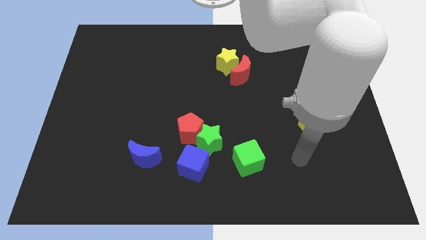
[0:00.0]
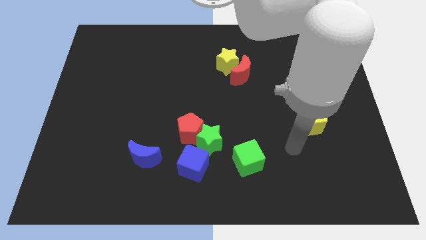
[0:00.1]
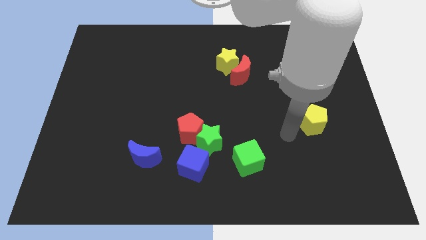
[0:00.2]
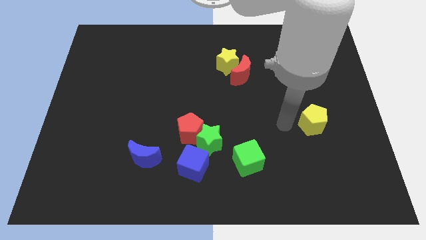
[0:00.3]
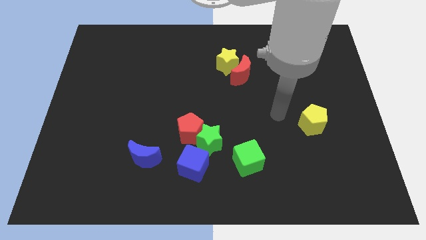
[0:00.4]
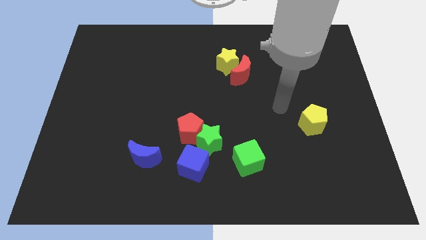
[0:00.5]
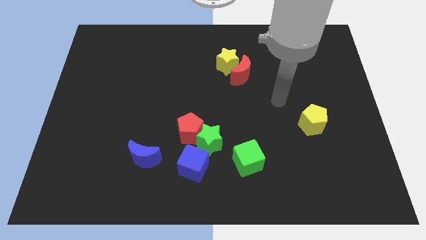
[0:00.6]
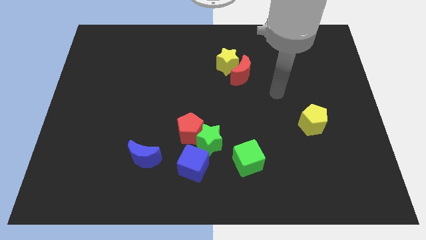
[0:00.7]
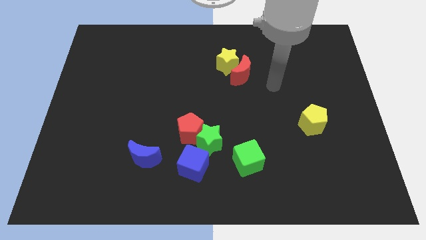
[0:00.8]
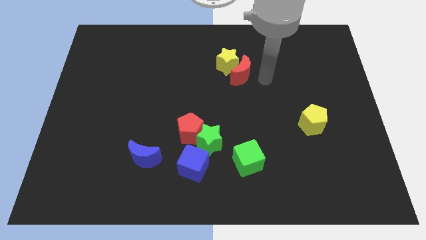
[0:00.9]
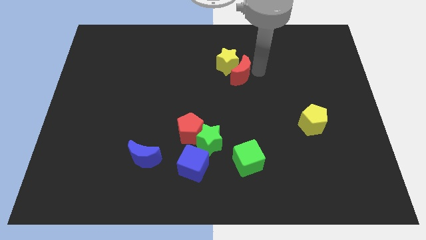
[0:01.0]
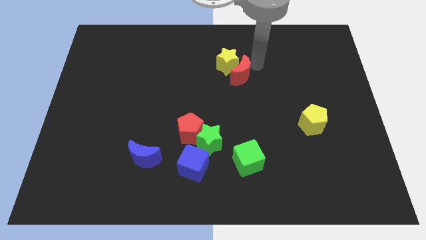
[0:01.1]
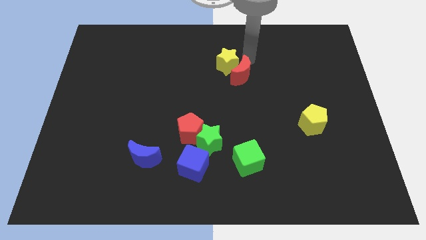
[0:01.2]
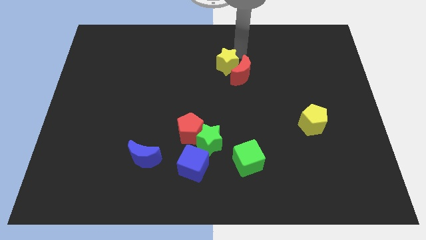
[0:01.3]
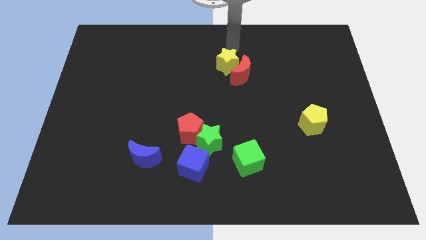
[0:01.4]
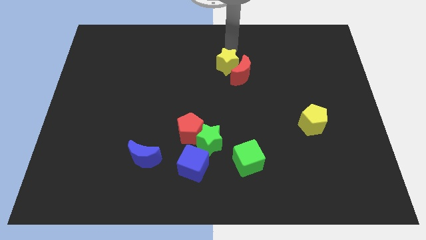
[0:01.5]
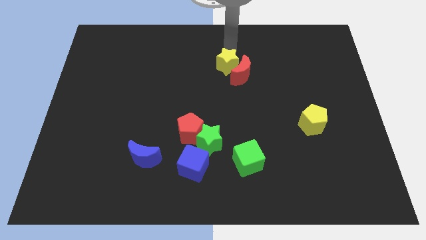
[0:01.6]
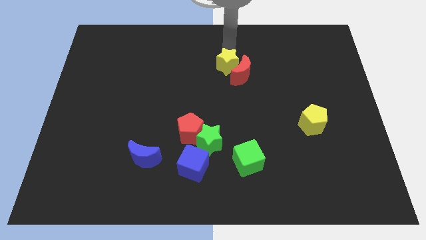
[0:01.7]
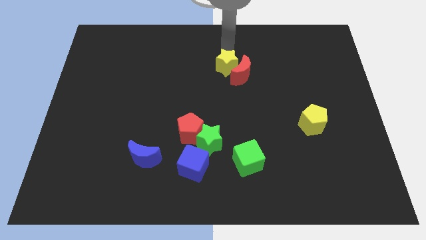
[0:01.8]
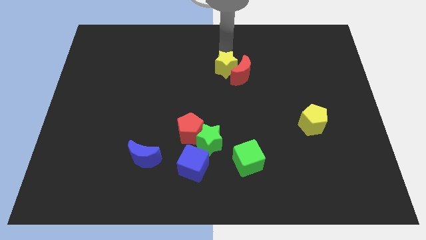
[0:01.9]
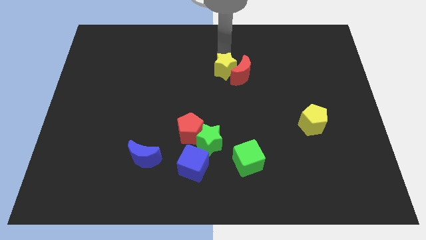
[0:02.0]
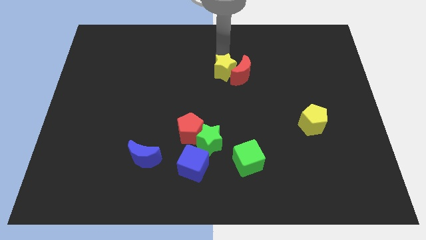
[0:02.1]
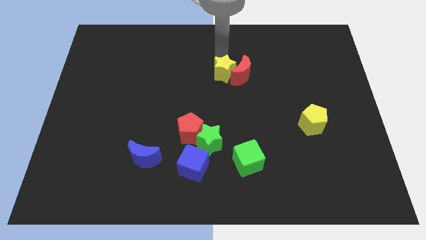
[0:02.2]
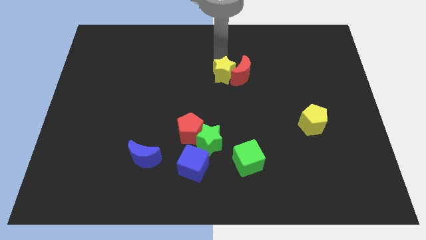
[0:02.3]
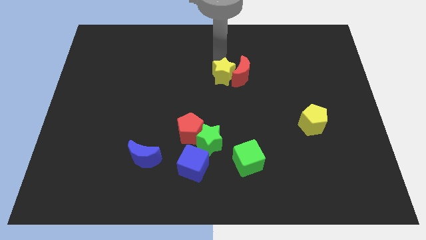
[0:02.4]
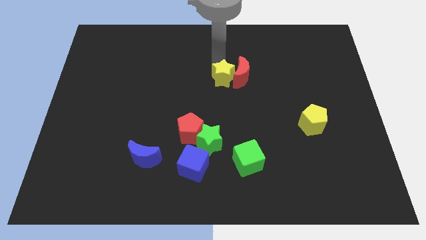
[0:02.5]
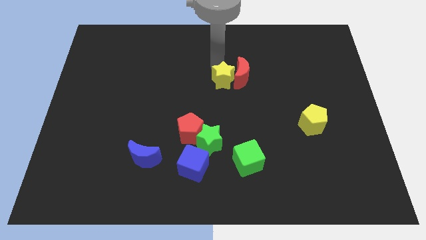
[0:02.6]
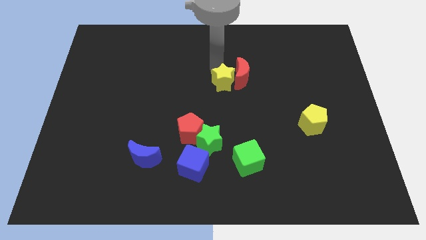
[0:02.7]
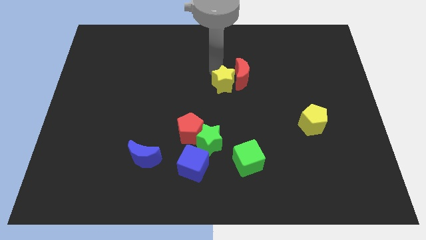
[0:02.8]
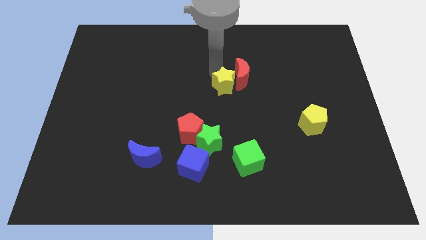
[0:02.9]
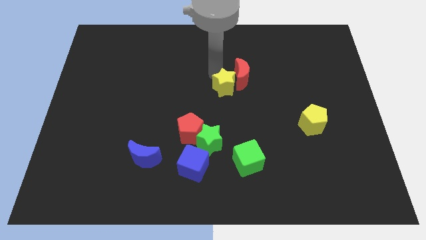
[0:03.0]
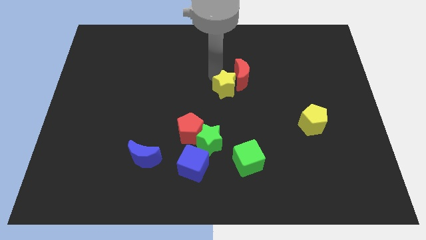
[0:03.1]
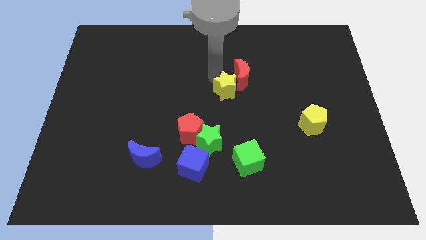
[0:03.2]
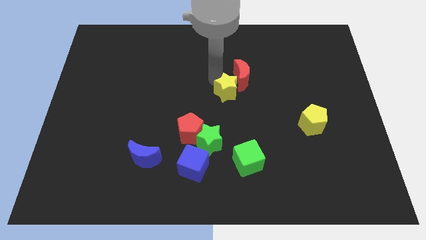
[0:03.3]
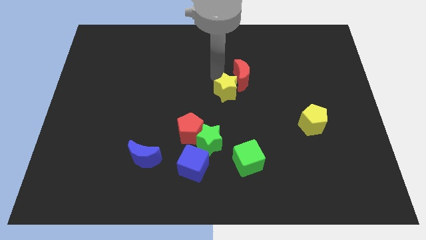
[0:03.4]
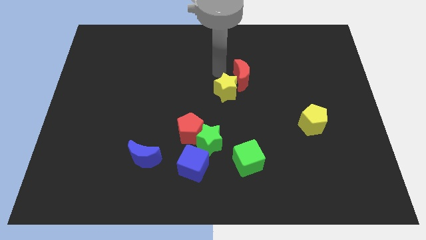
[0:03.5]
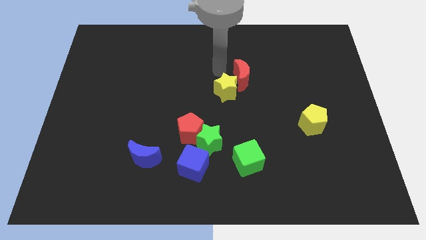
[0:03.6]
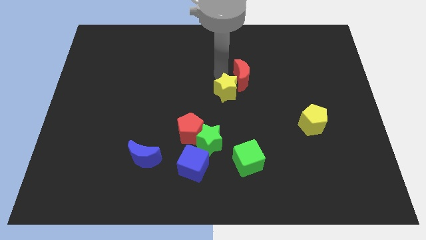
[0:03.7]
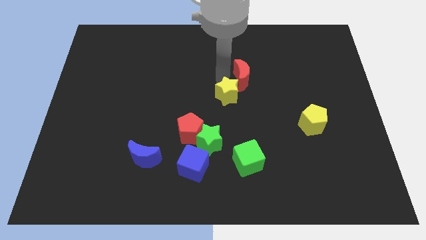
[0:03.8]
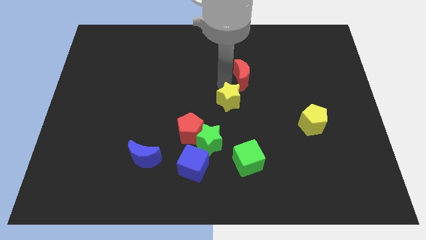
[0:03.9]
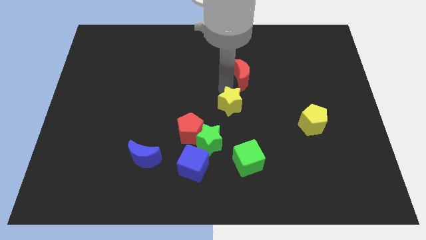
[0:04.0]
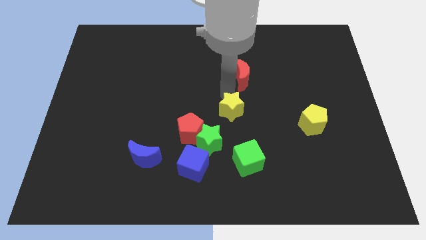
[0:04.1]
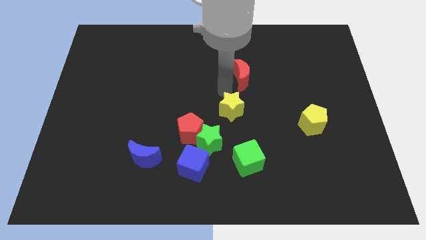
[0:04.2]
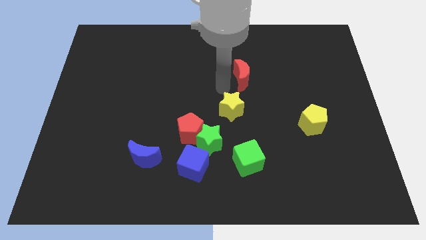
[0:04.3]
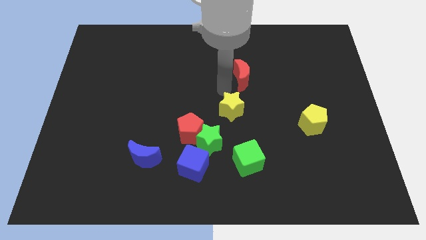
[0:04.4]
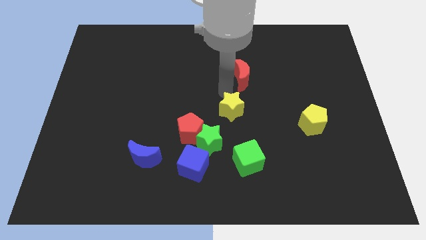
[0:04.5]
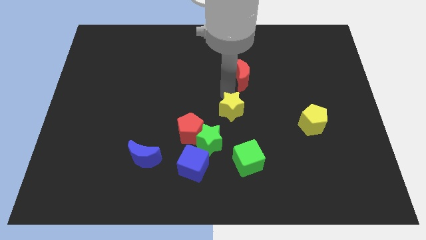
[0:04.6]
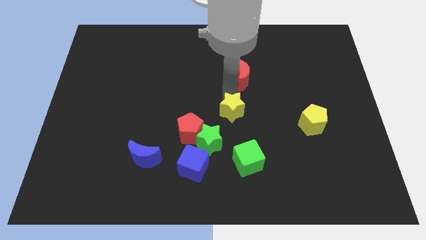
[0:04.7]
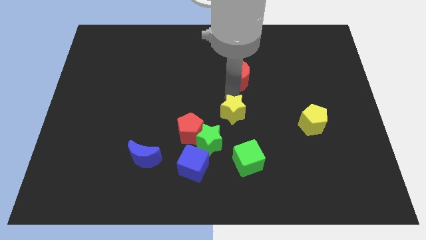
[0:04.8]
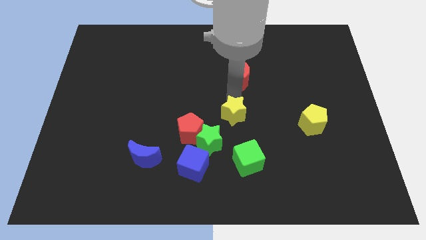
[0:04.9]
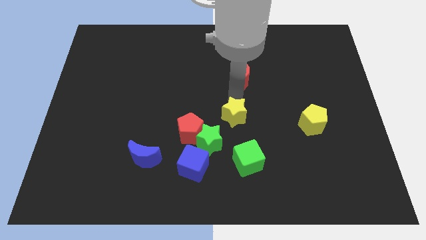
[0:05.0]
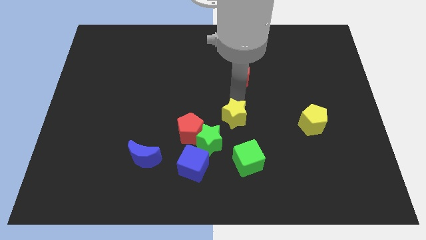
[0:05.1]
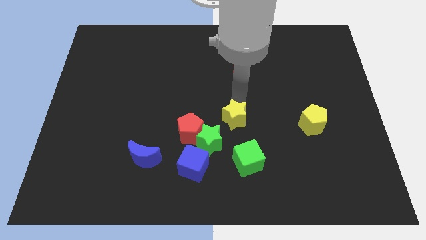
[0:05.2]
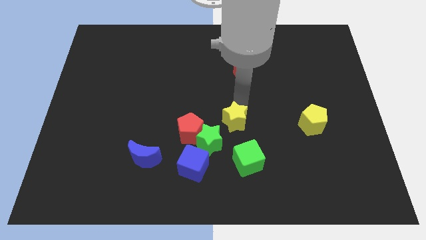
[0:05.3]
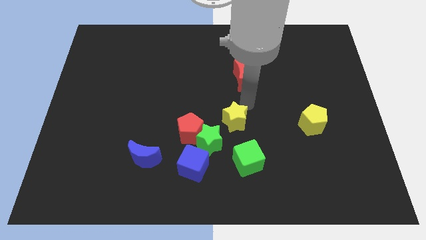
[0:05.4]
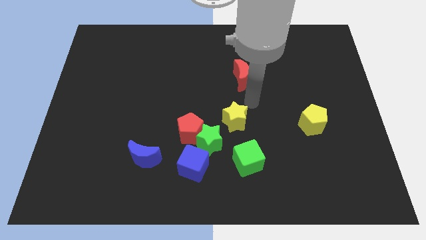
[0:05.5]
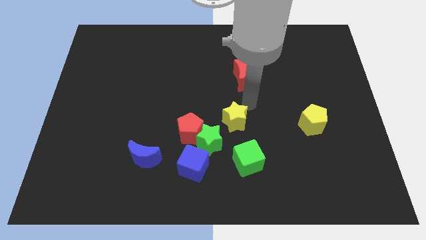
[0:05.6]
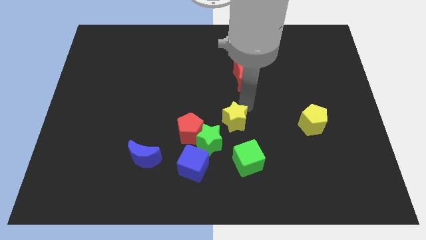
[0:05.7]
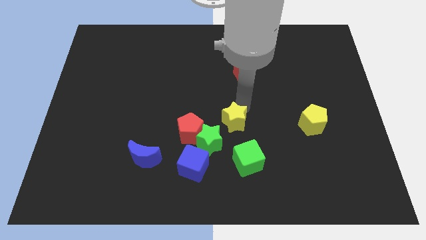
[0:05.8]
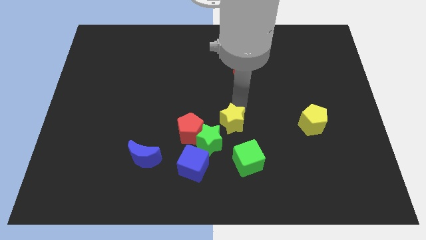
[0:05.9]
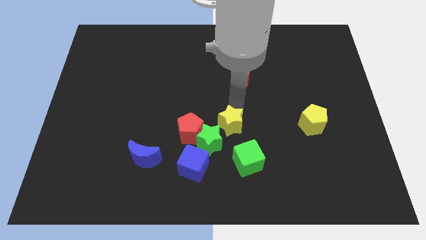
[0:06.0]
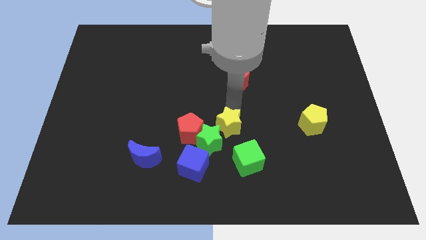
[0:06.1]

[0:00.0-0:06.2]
put the yellow star towards the green star

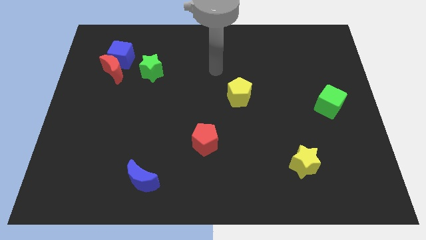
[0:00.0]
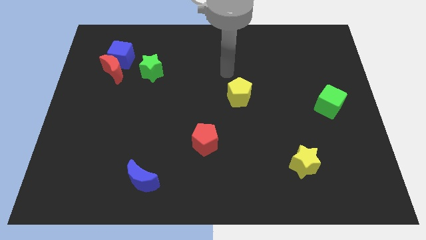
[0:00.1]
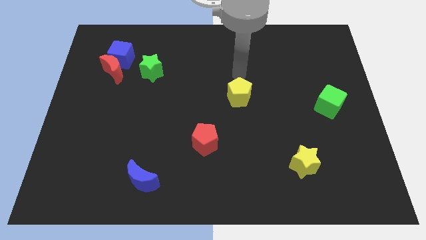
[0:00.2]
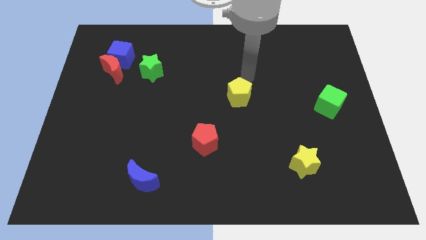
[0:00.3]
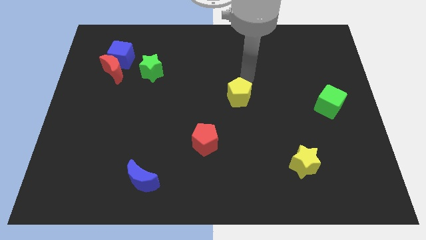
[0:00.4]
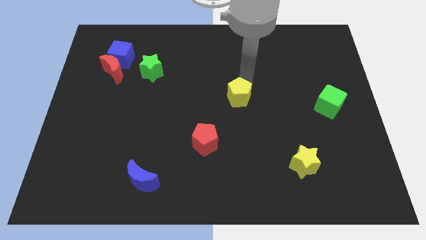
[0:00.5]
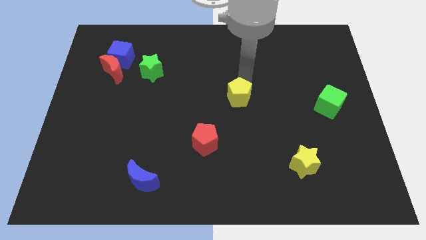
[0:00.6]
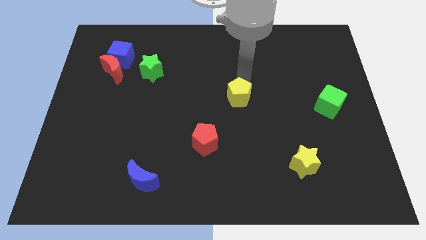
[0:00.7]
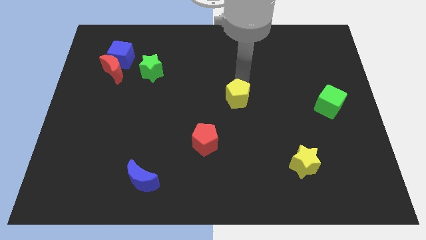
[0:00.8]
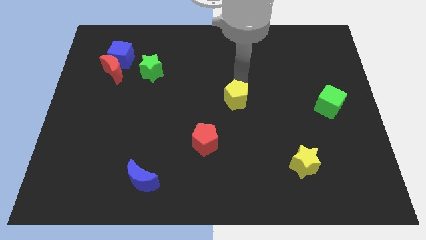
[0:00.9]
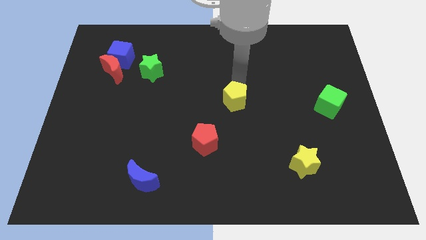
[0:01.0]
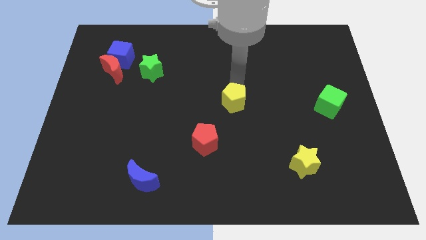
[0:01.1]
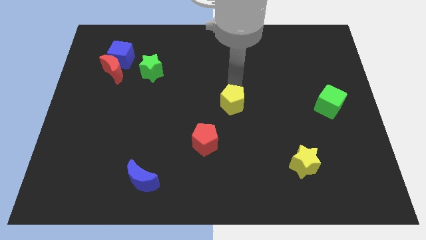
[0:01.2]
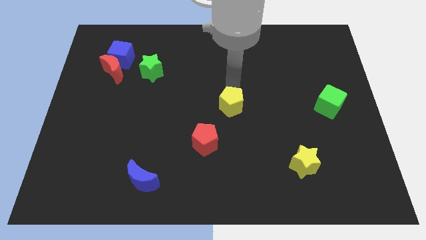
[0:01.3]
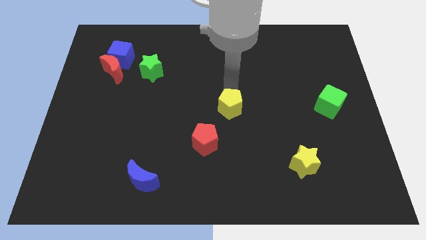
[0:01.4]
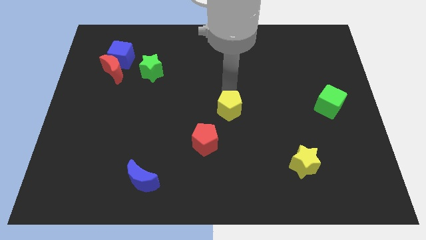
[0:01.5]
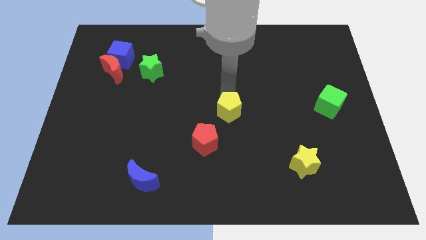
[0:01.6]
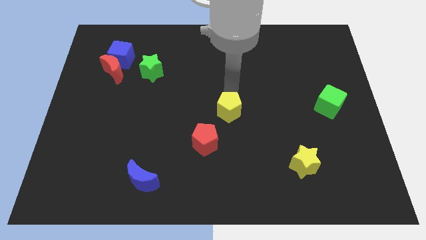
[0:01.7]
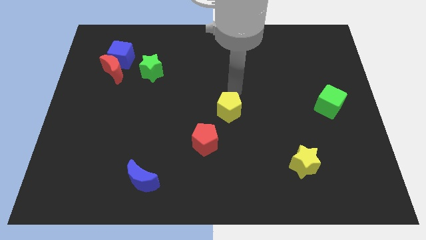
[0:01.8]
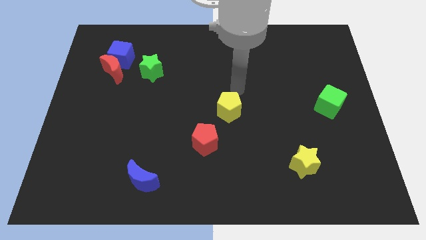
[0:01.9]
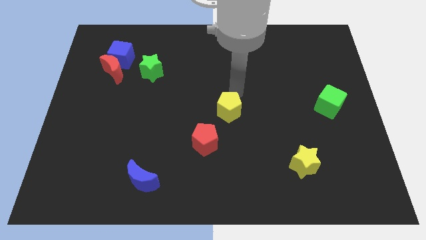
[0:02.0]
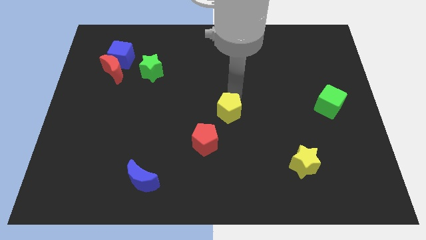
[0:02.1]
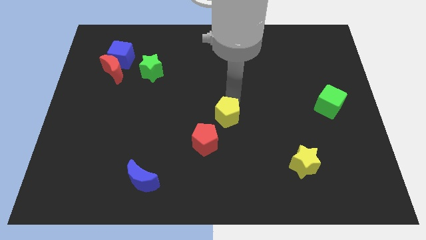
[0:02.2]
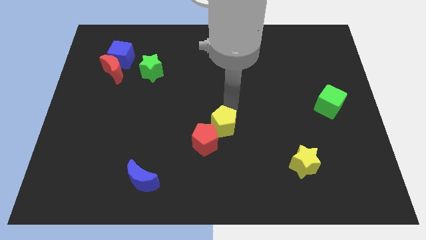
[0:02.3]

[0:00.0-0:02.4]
put the yellow pentagon to the red pentagon
